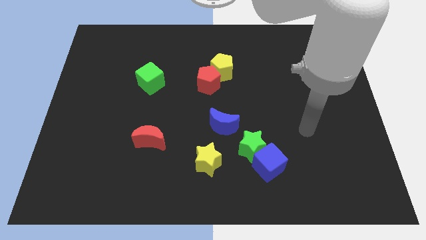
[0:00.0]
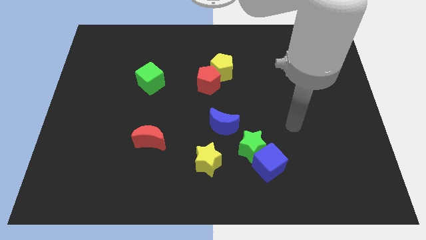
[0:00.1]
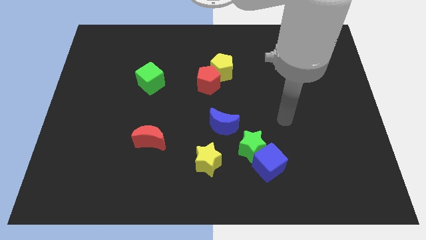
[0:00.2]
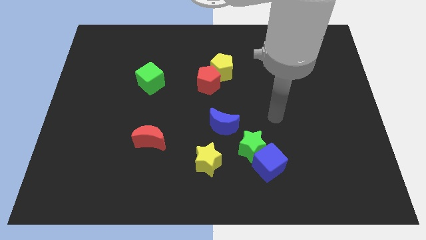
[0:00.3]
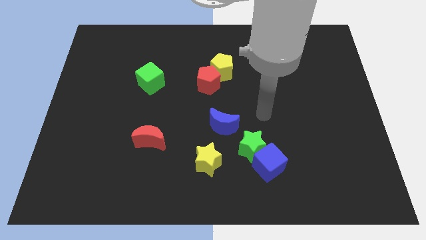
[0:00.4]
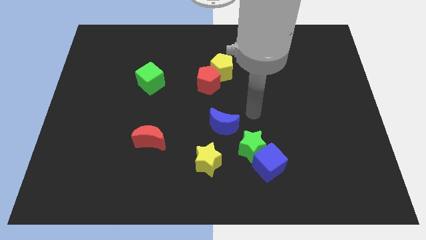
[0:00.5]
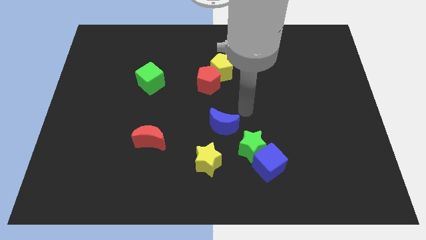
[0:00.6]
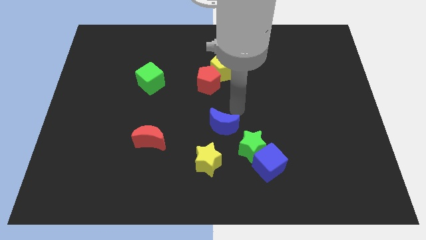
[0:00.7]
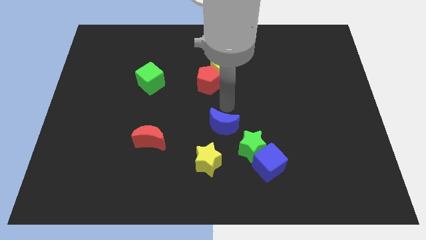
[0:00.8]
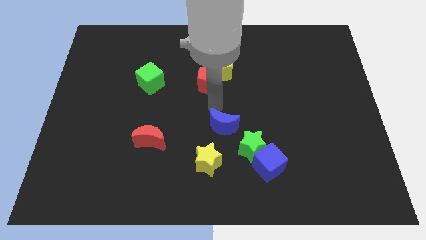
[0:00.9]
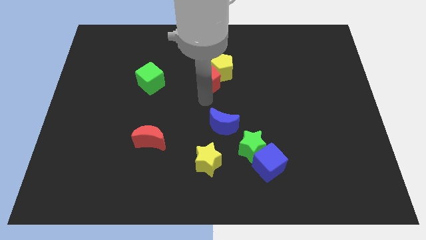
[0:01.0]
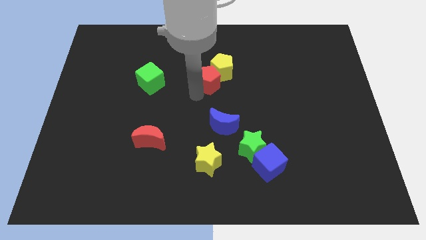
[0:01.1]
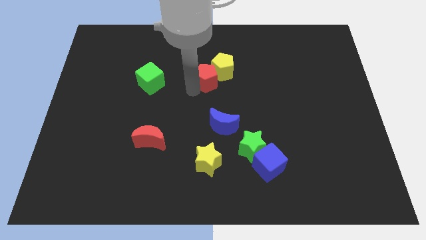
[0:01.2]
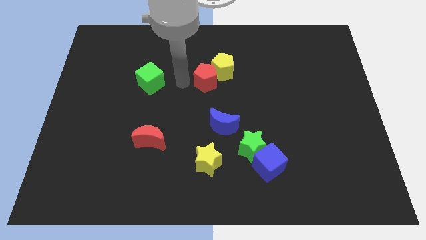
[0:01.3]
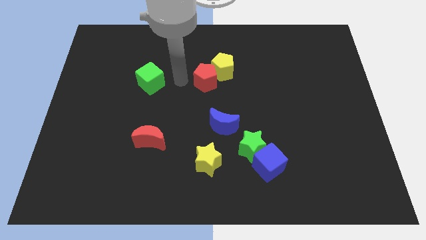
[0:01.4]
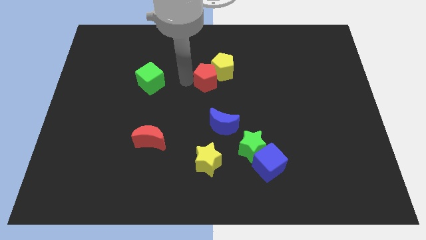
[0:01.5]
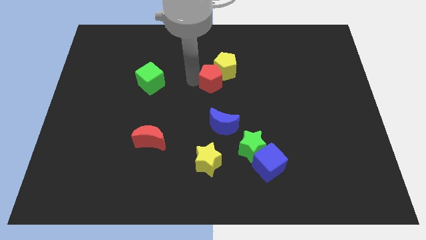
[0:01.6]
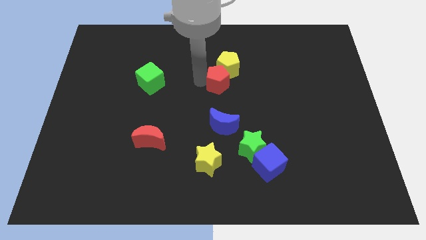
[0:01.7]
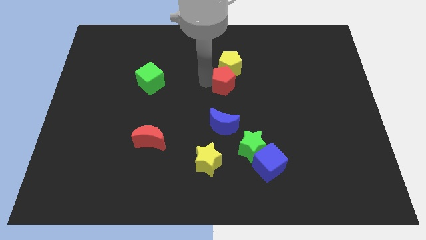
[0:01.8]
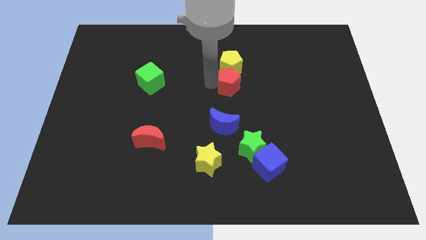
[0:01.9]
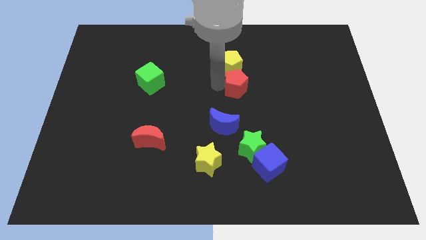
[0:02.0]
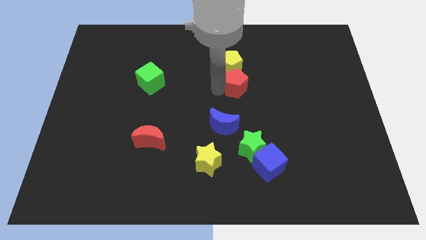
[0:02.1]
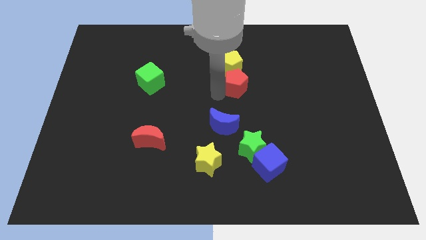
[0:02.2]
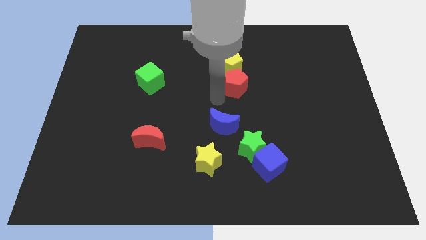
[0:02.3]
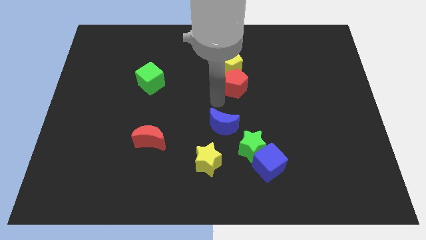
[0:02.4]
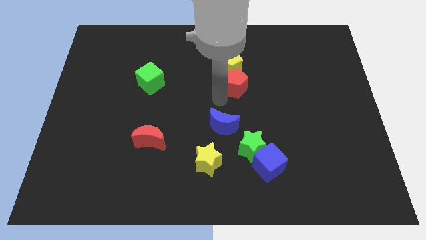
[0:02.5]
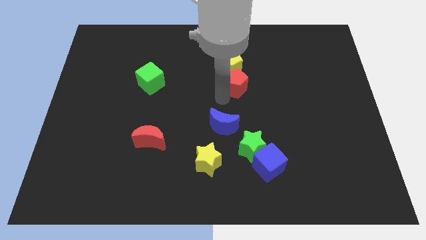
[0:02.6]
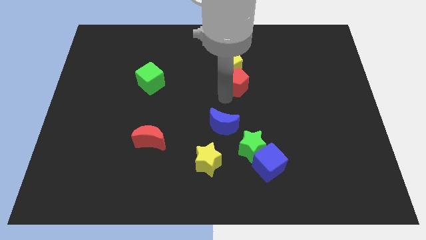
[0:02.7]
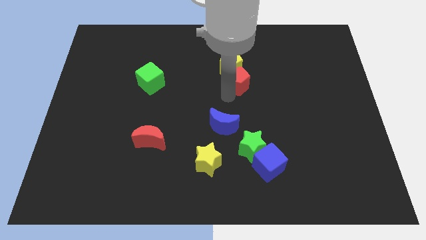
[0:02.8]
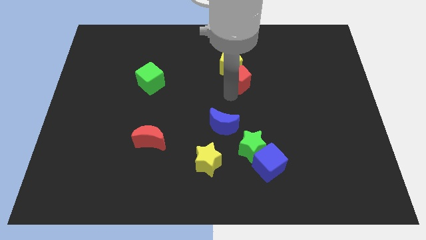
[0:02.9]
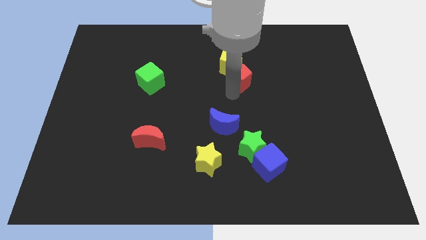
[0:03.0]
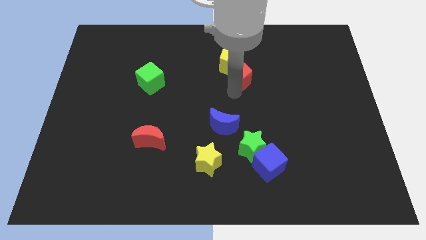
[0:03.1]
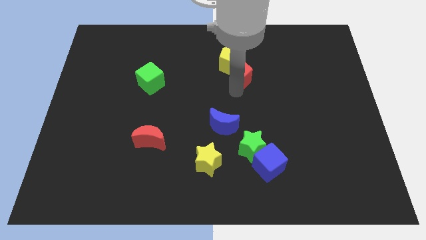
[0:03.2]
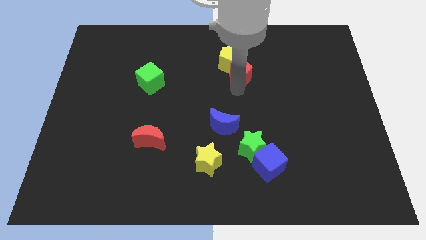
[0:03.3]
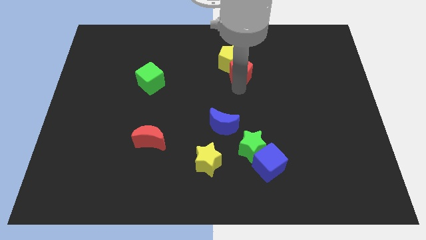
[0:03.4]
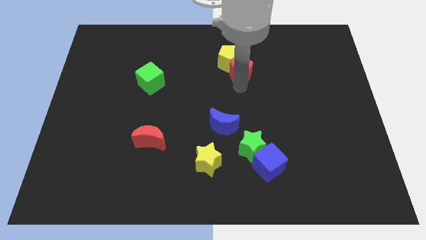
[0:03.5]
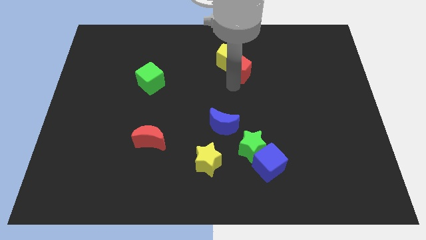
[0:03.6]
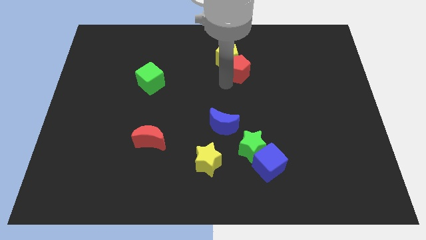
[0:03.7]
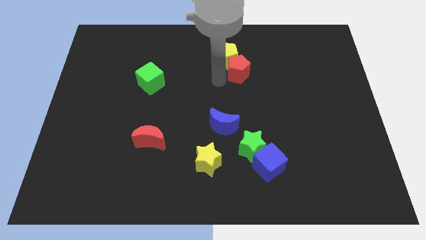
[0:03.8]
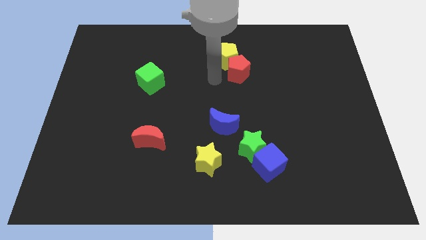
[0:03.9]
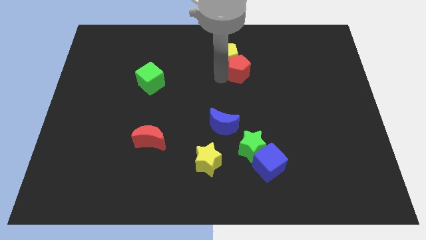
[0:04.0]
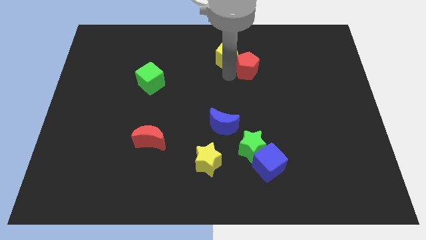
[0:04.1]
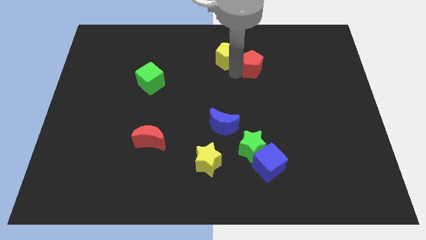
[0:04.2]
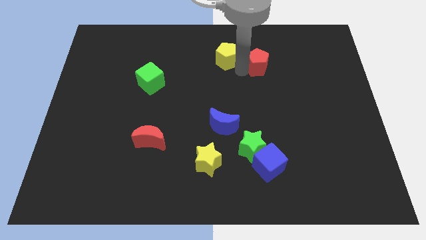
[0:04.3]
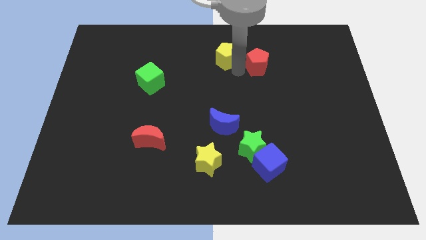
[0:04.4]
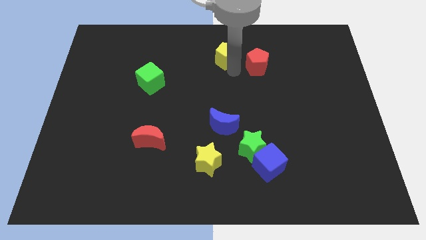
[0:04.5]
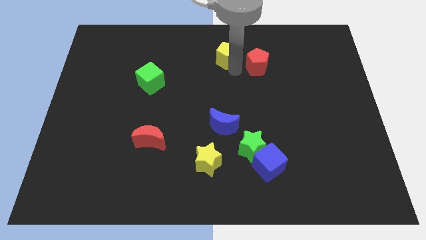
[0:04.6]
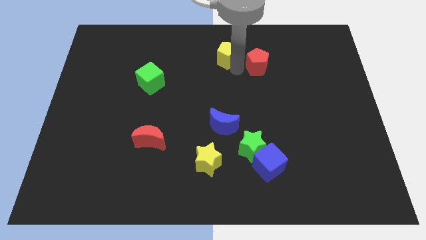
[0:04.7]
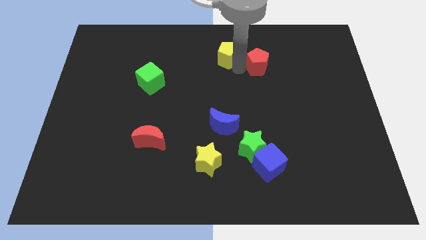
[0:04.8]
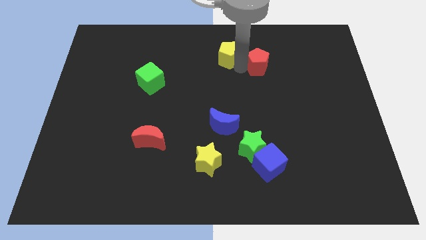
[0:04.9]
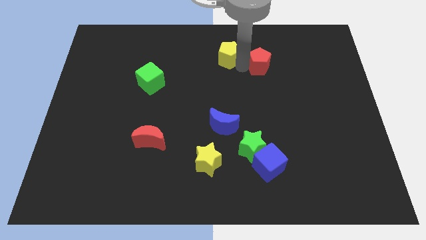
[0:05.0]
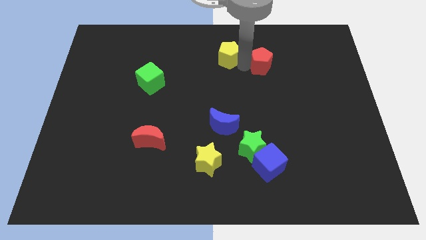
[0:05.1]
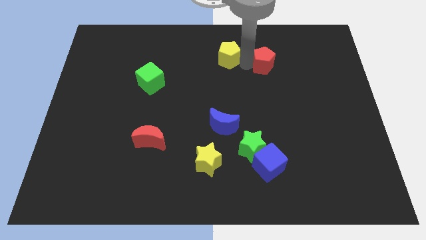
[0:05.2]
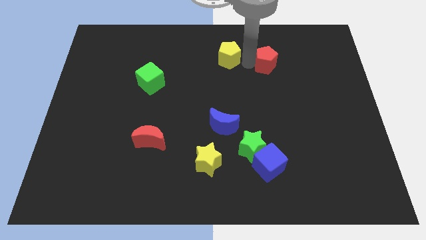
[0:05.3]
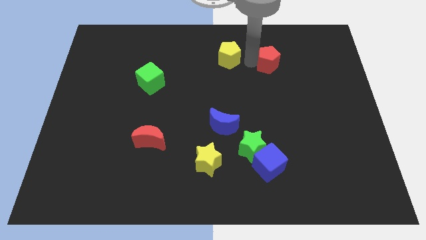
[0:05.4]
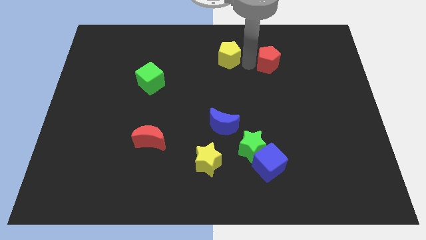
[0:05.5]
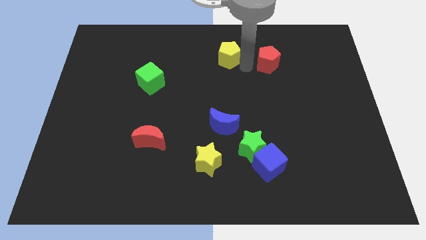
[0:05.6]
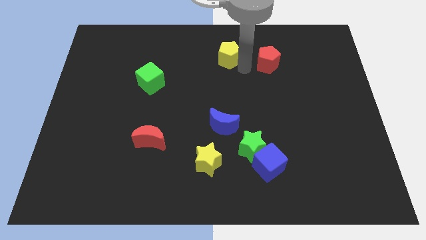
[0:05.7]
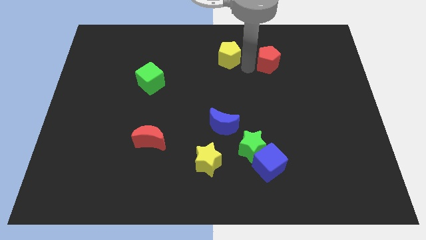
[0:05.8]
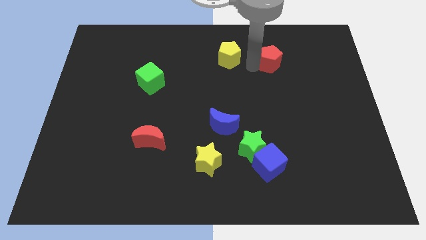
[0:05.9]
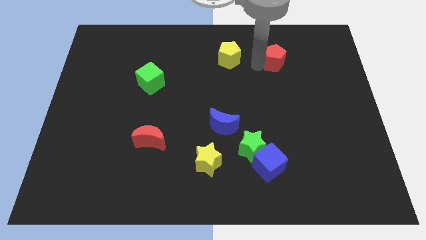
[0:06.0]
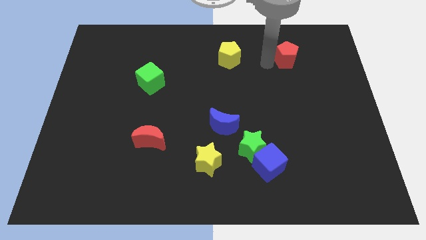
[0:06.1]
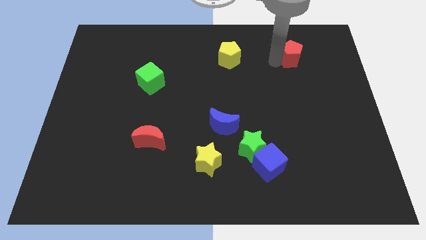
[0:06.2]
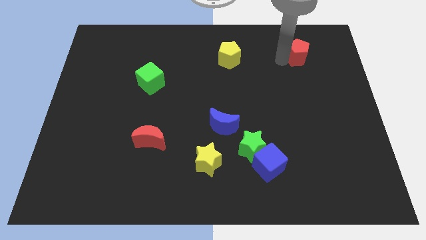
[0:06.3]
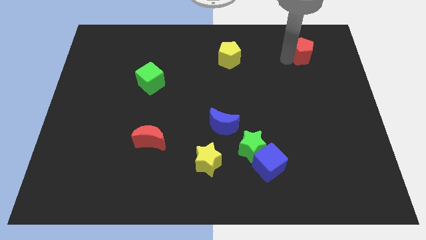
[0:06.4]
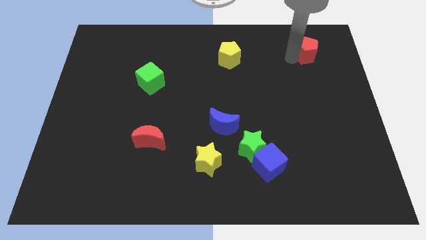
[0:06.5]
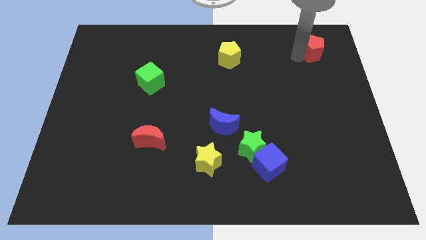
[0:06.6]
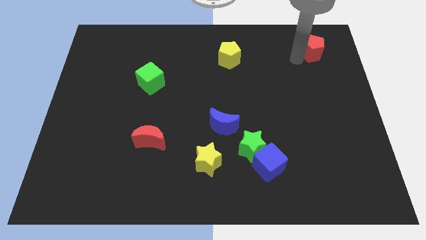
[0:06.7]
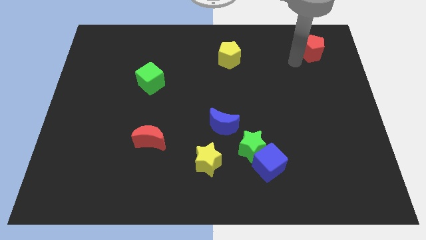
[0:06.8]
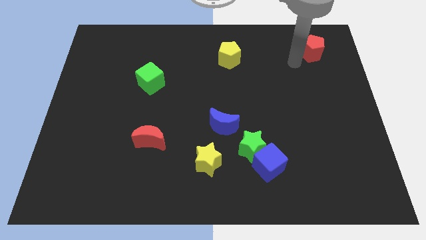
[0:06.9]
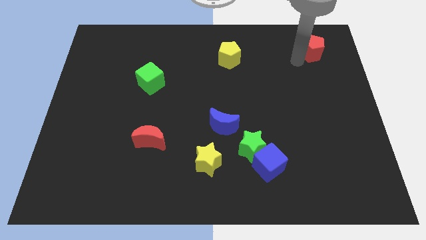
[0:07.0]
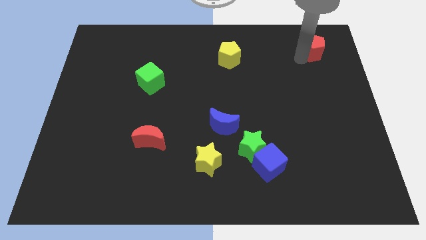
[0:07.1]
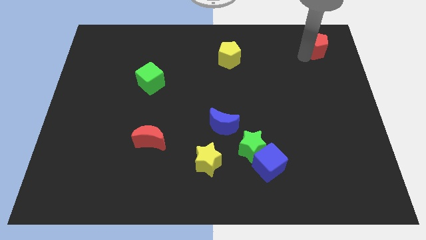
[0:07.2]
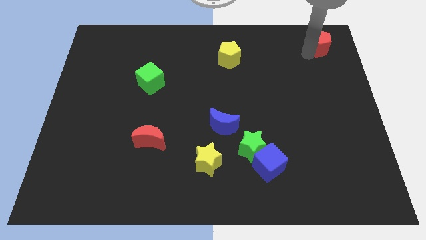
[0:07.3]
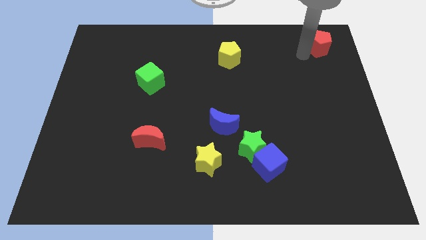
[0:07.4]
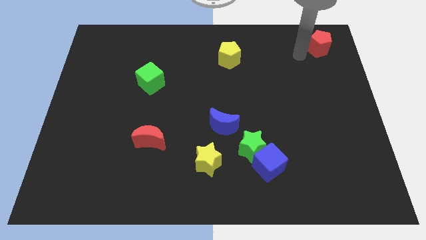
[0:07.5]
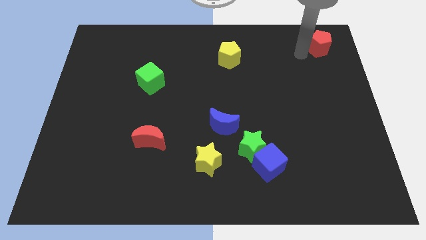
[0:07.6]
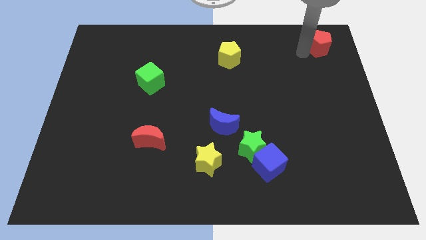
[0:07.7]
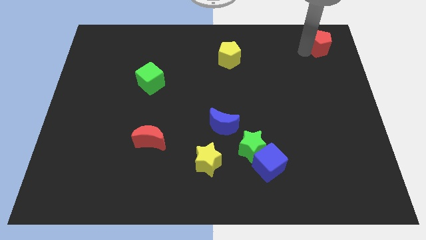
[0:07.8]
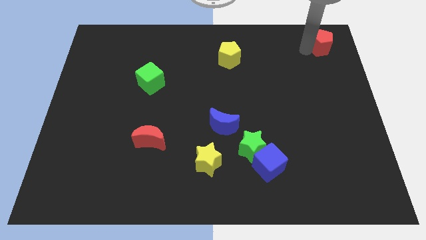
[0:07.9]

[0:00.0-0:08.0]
put the red pentagon to the top right corner
